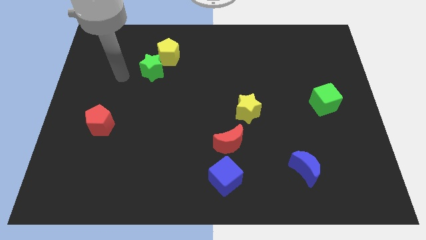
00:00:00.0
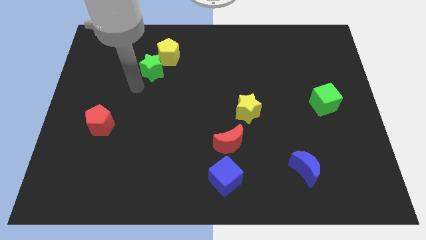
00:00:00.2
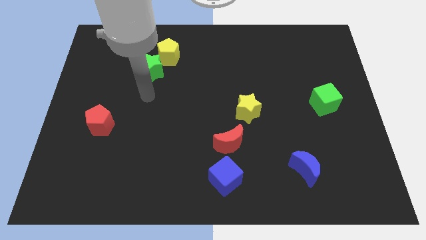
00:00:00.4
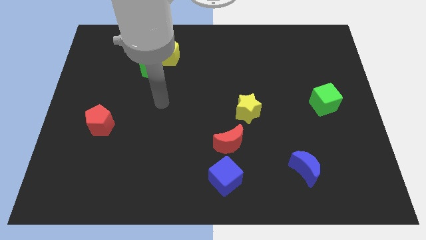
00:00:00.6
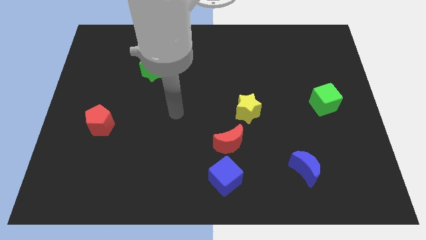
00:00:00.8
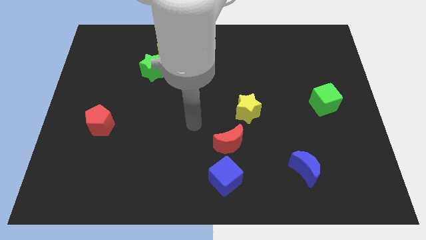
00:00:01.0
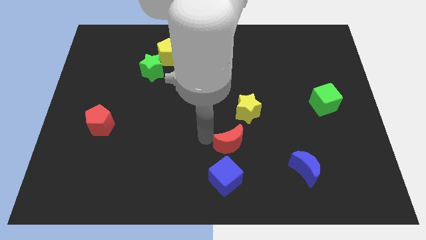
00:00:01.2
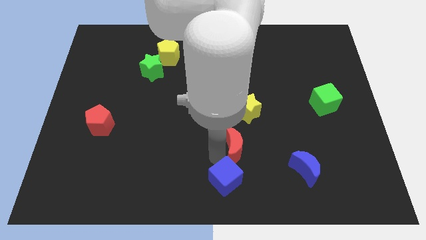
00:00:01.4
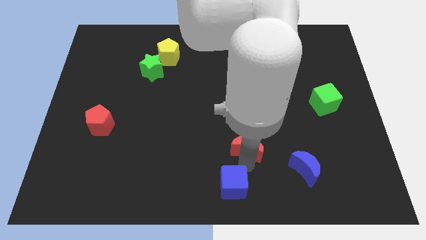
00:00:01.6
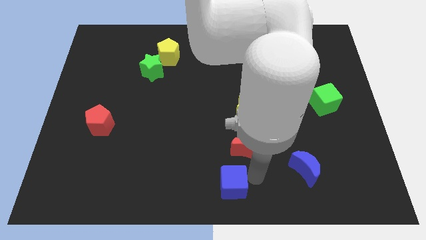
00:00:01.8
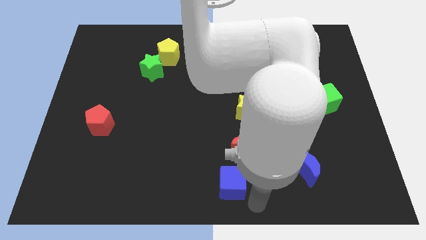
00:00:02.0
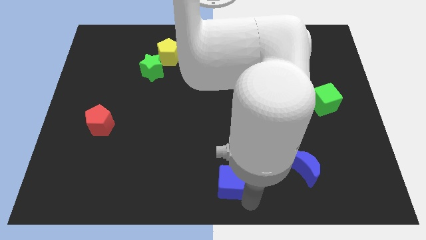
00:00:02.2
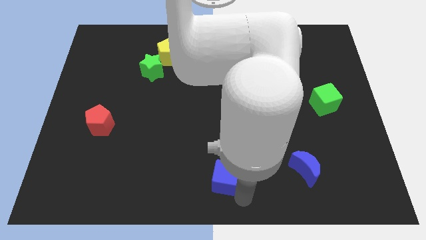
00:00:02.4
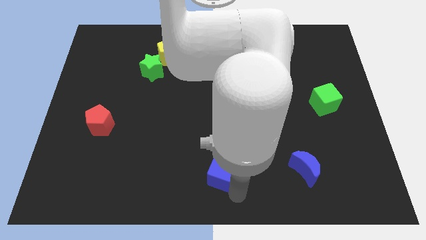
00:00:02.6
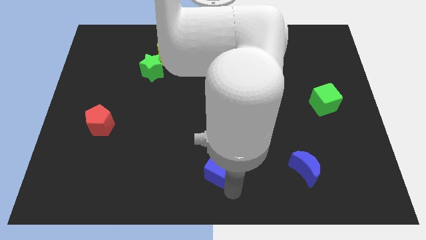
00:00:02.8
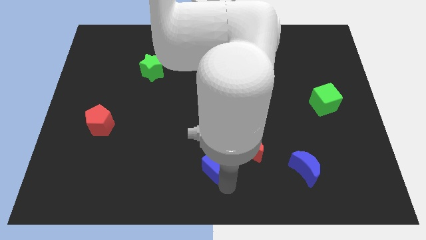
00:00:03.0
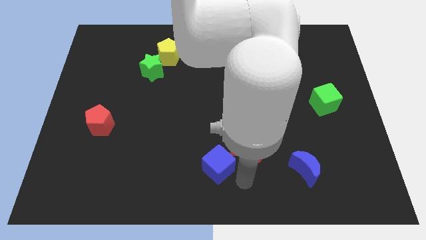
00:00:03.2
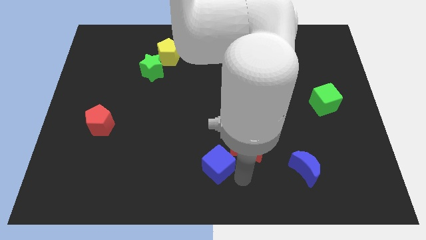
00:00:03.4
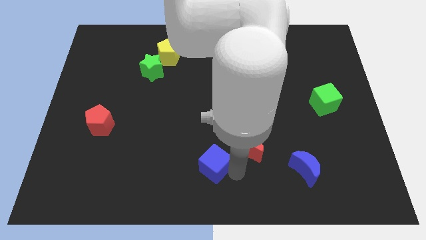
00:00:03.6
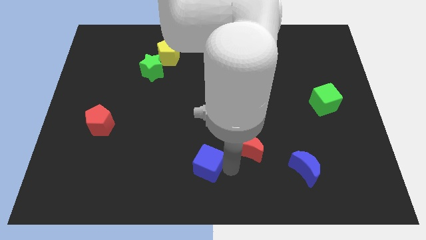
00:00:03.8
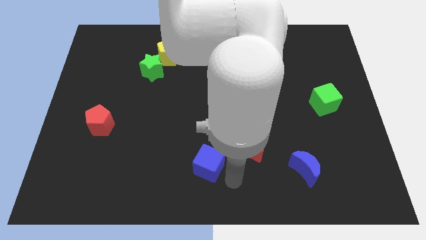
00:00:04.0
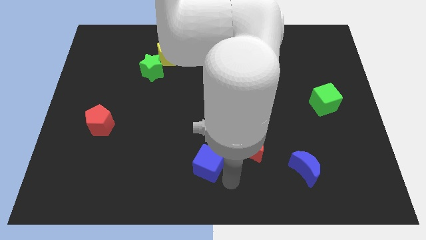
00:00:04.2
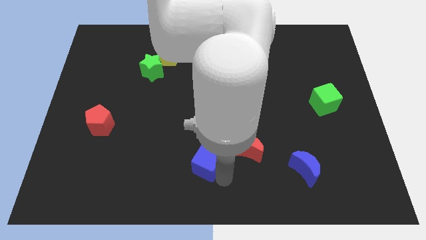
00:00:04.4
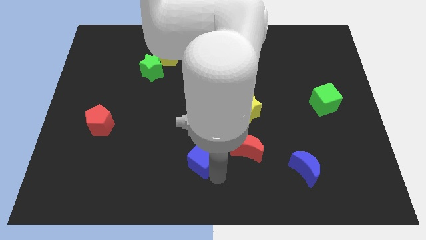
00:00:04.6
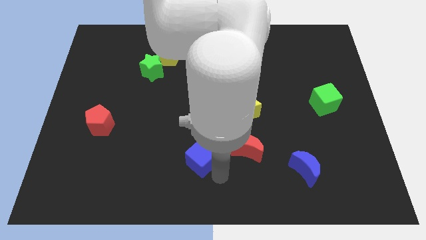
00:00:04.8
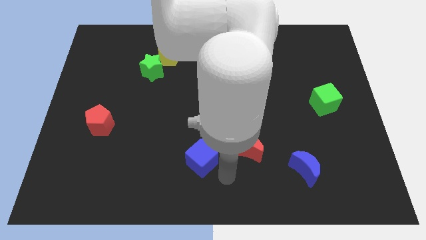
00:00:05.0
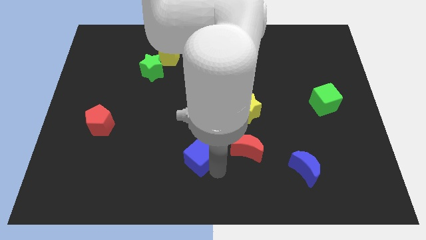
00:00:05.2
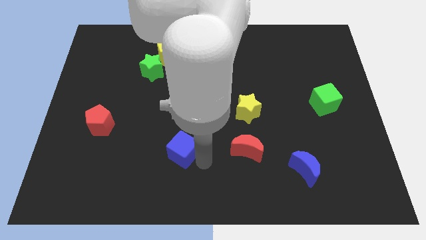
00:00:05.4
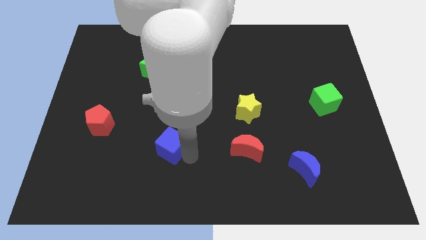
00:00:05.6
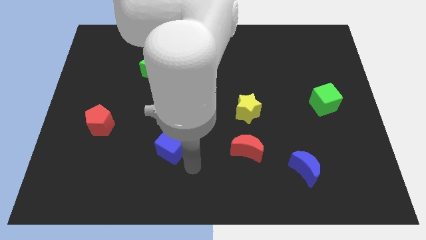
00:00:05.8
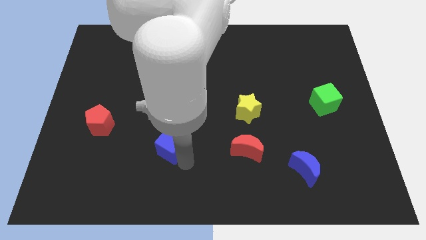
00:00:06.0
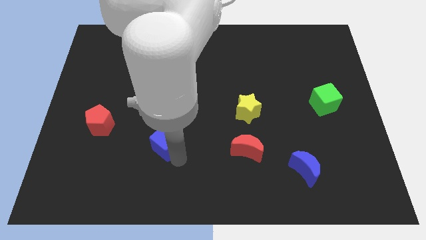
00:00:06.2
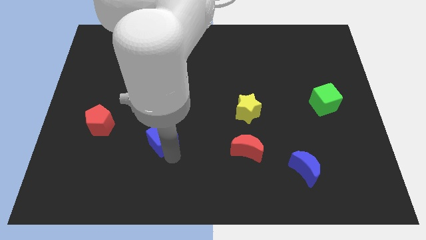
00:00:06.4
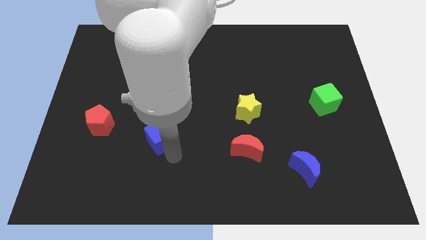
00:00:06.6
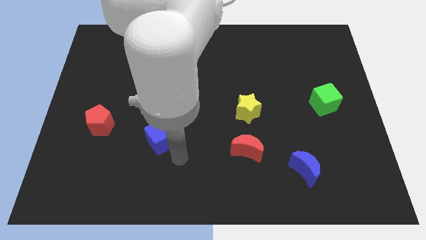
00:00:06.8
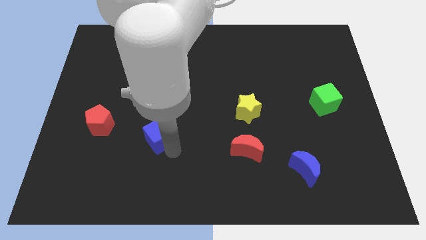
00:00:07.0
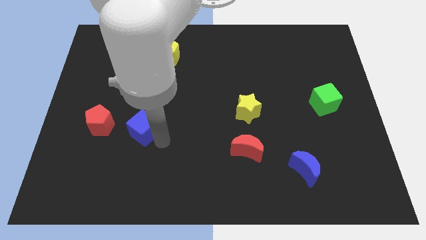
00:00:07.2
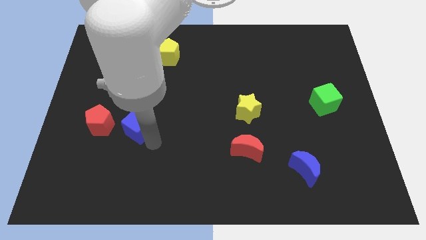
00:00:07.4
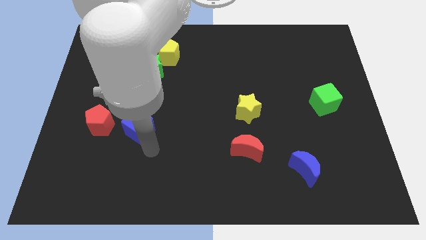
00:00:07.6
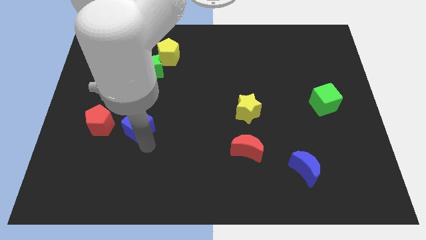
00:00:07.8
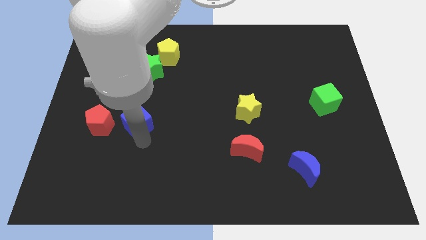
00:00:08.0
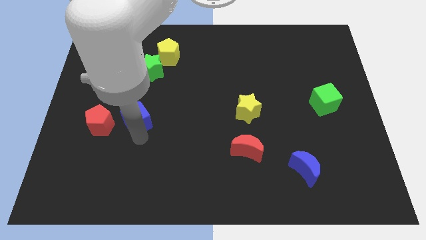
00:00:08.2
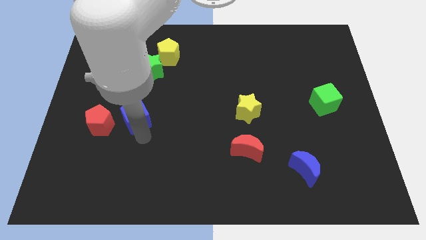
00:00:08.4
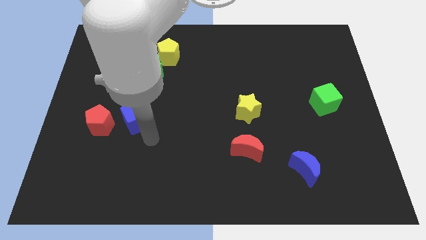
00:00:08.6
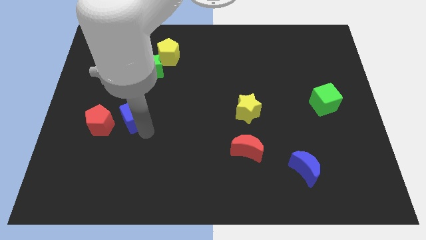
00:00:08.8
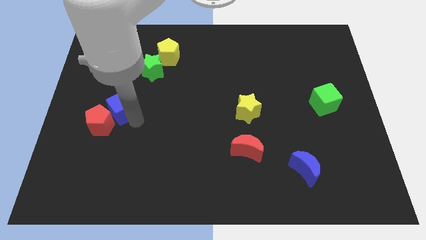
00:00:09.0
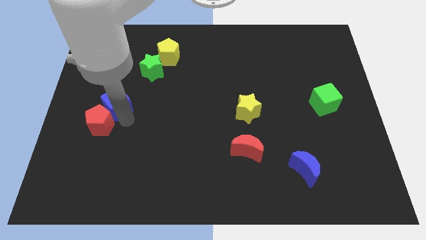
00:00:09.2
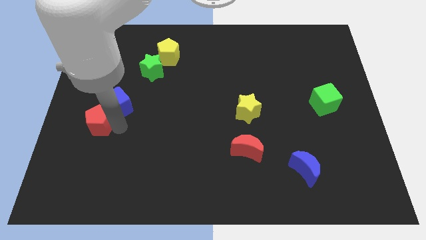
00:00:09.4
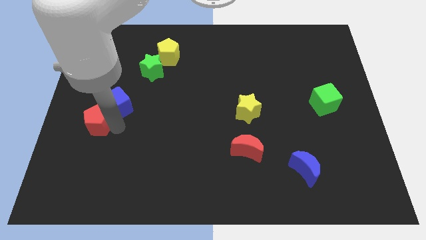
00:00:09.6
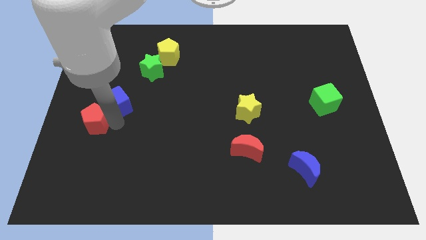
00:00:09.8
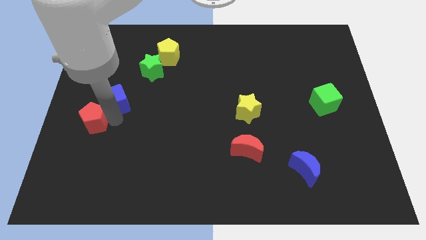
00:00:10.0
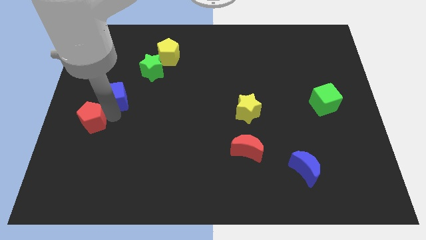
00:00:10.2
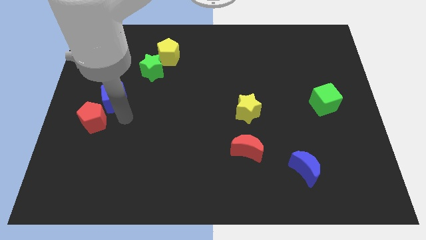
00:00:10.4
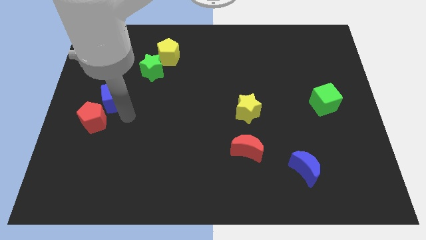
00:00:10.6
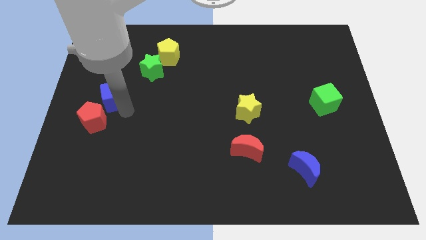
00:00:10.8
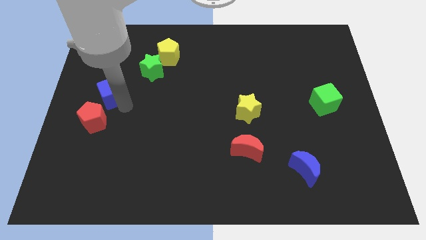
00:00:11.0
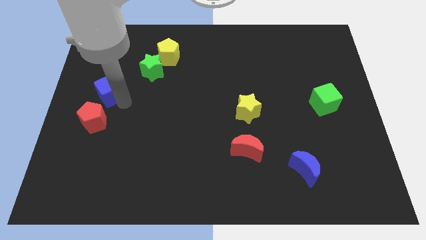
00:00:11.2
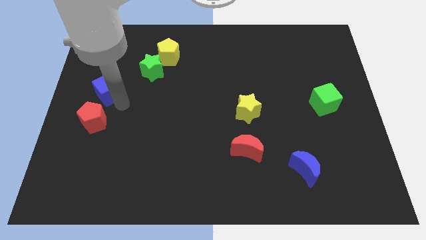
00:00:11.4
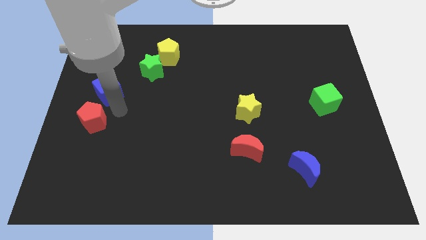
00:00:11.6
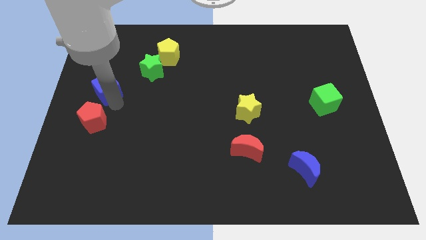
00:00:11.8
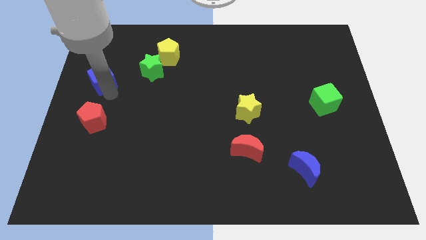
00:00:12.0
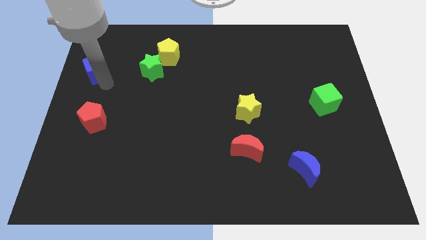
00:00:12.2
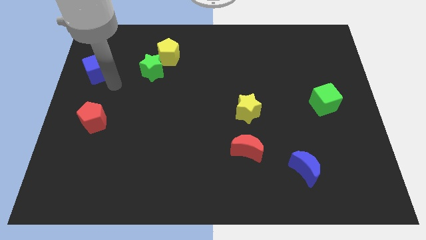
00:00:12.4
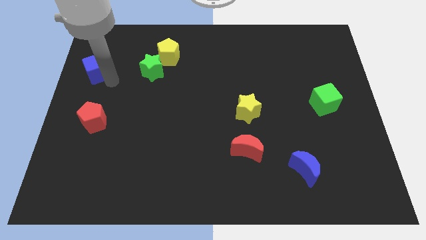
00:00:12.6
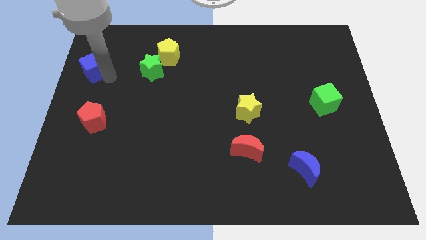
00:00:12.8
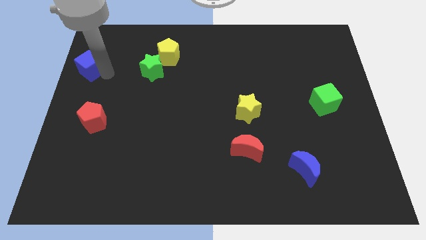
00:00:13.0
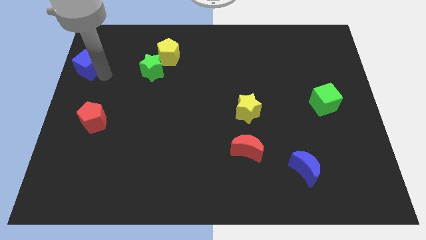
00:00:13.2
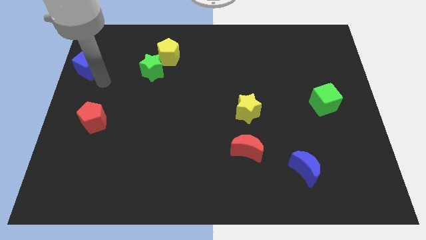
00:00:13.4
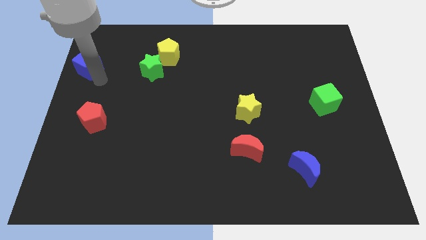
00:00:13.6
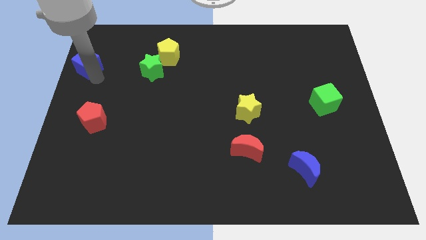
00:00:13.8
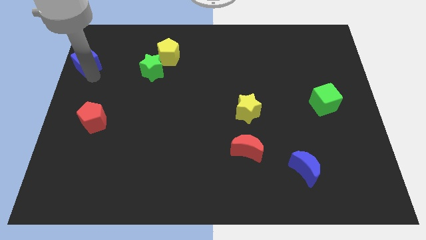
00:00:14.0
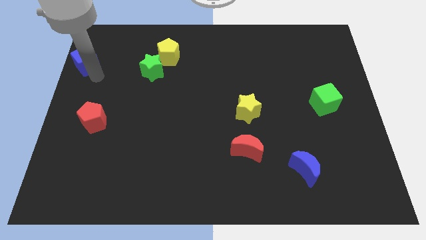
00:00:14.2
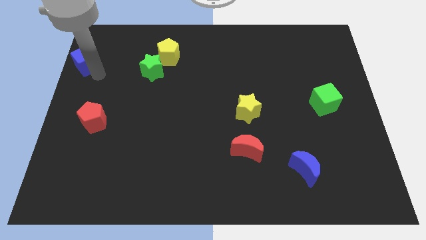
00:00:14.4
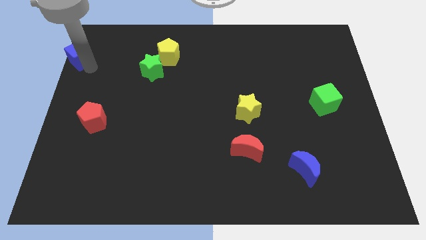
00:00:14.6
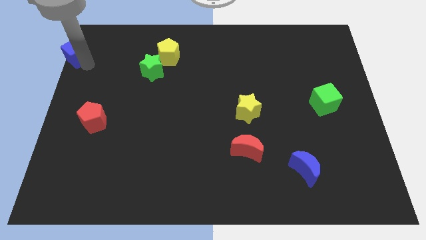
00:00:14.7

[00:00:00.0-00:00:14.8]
put the blue cube to the top left corner
